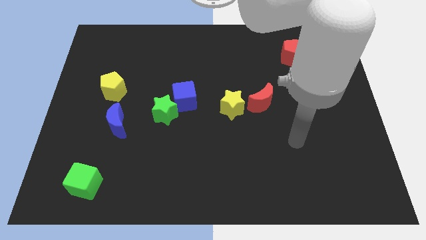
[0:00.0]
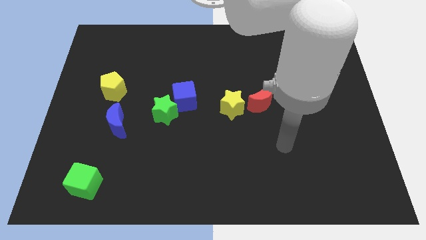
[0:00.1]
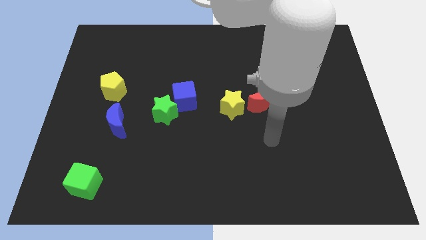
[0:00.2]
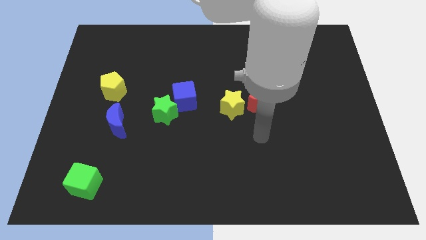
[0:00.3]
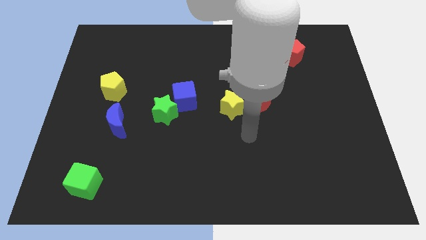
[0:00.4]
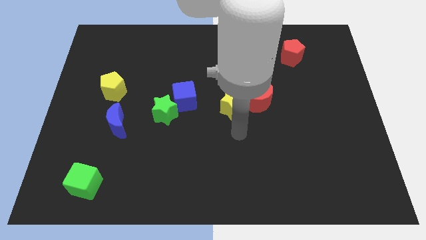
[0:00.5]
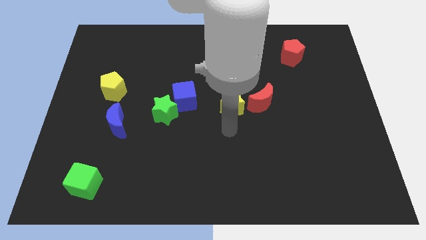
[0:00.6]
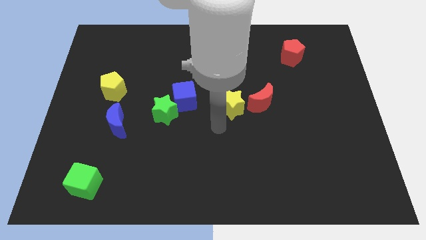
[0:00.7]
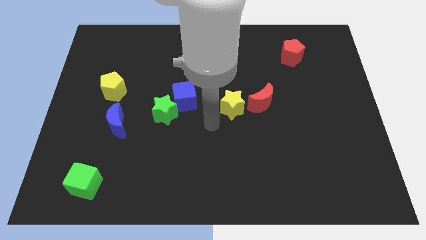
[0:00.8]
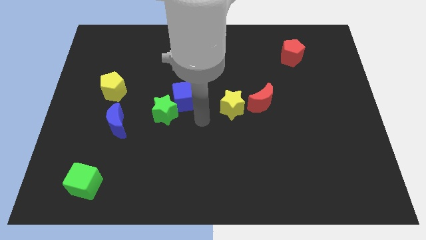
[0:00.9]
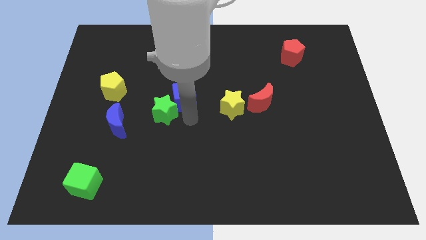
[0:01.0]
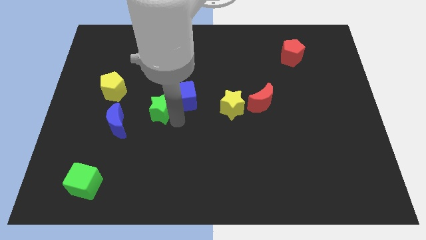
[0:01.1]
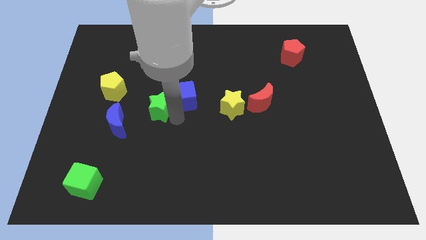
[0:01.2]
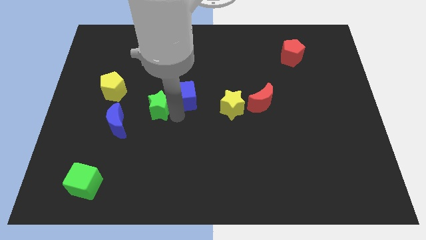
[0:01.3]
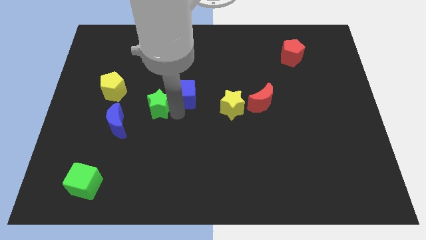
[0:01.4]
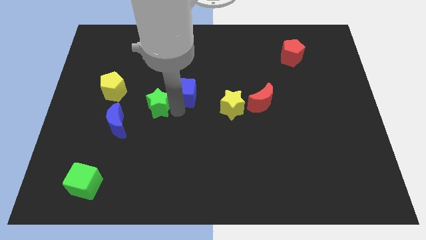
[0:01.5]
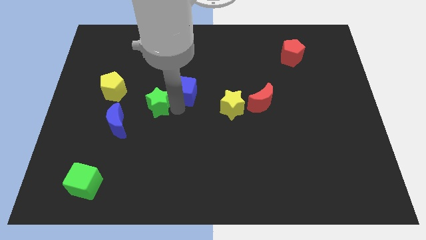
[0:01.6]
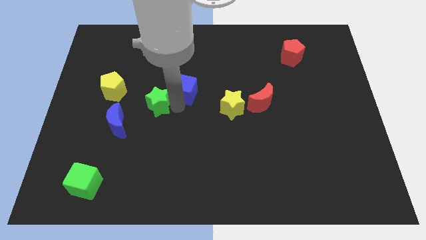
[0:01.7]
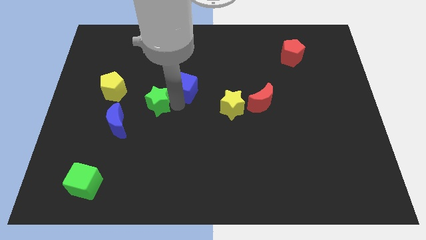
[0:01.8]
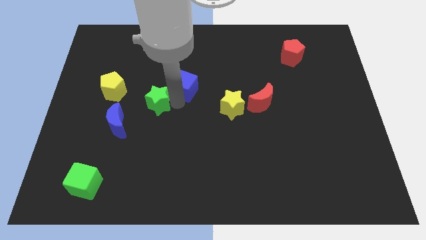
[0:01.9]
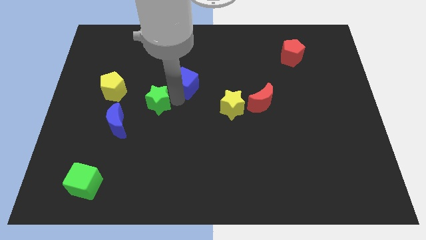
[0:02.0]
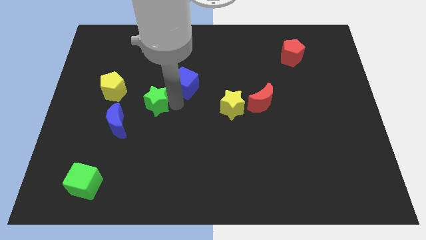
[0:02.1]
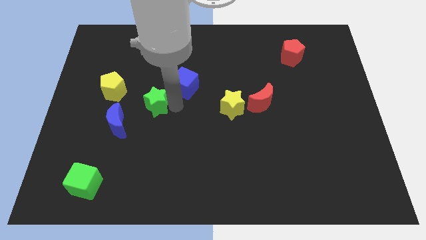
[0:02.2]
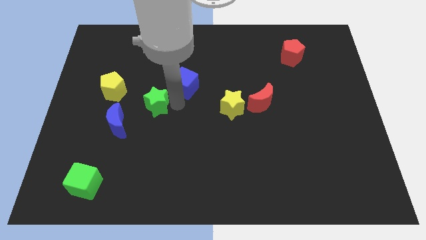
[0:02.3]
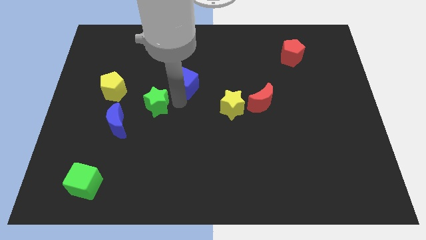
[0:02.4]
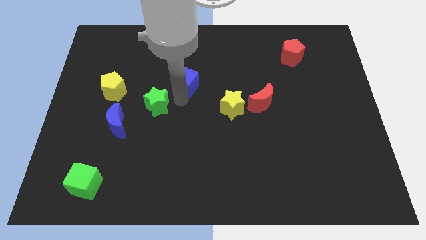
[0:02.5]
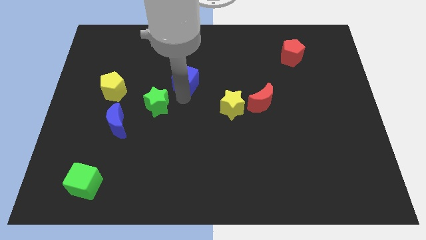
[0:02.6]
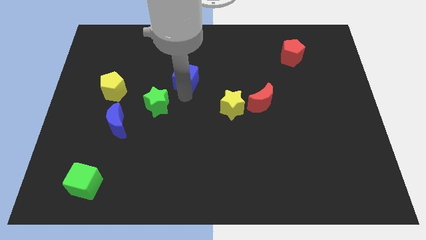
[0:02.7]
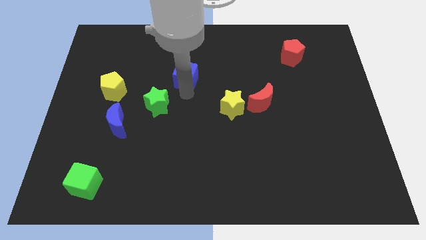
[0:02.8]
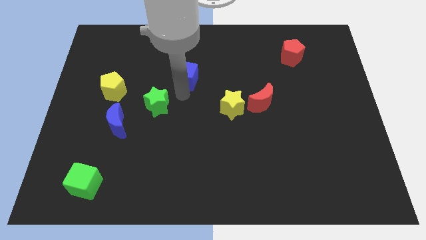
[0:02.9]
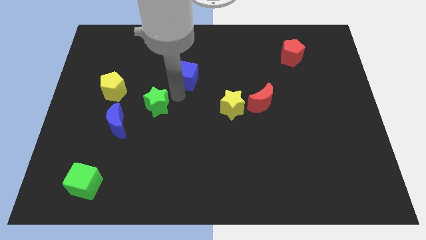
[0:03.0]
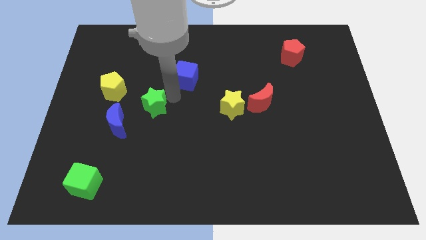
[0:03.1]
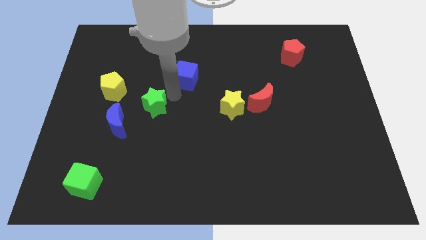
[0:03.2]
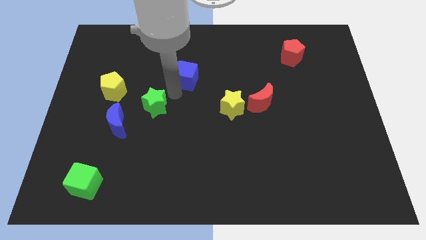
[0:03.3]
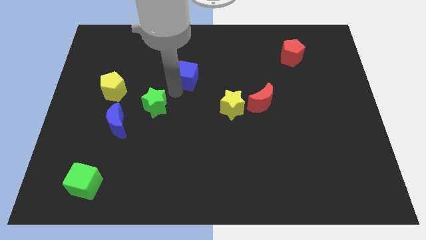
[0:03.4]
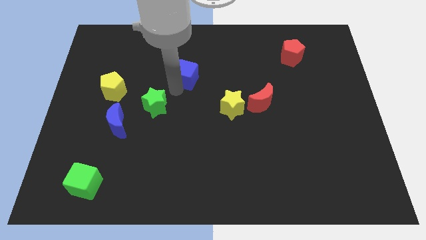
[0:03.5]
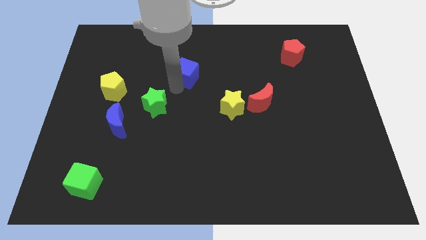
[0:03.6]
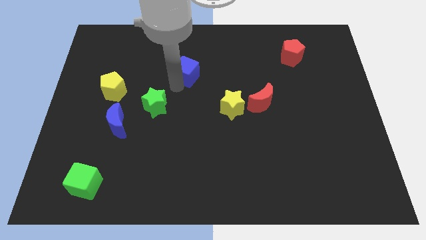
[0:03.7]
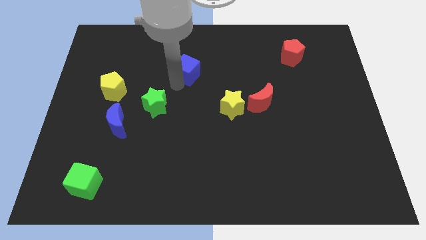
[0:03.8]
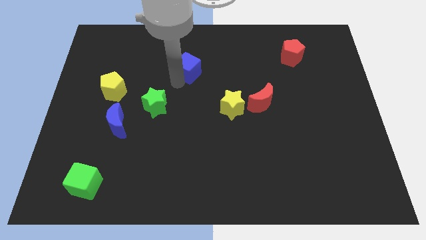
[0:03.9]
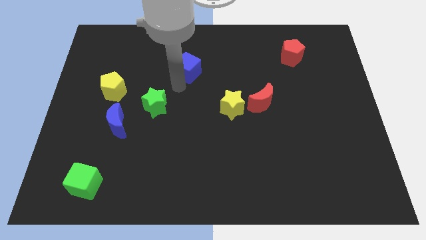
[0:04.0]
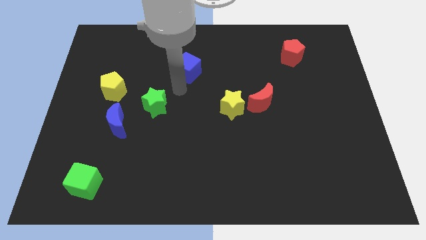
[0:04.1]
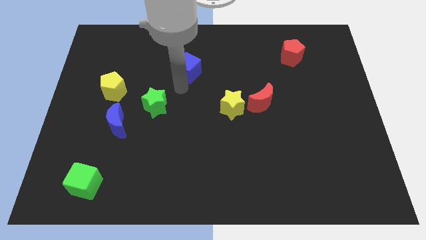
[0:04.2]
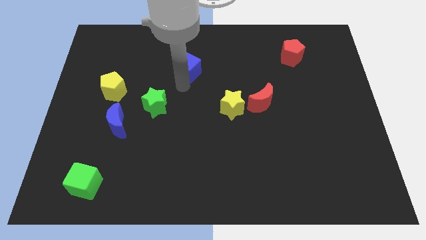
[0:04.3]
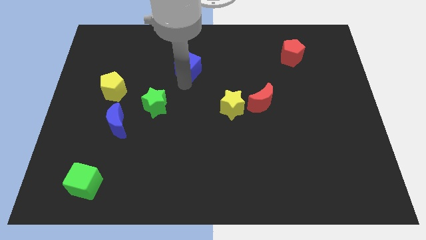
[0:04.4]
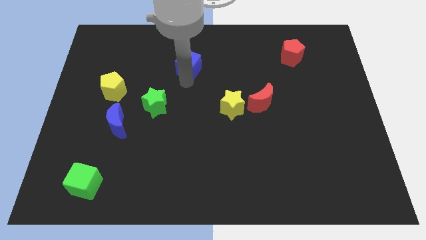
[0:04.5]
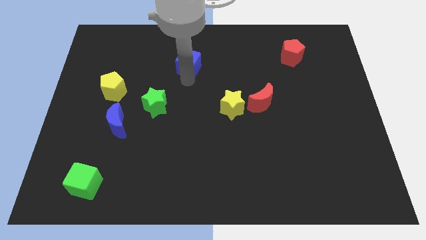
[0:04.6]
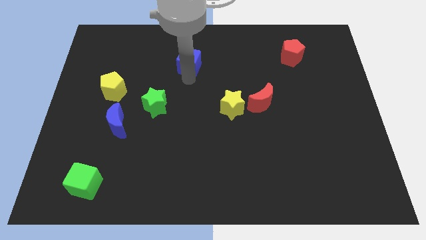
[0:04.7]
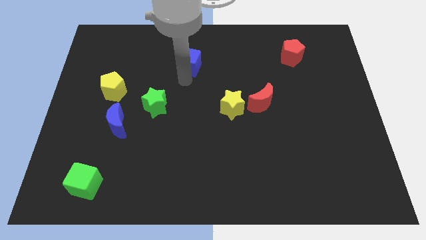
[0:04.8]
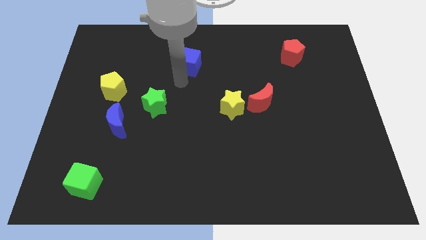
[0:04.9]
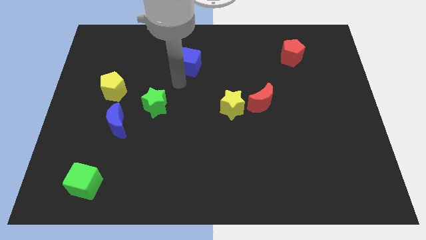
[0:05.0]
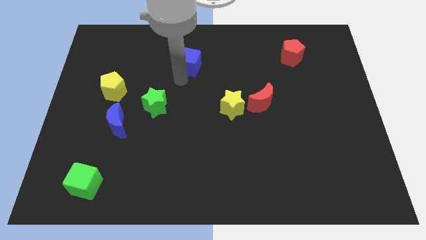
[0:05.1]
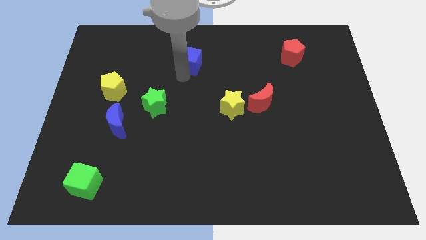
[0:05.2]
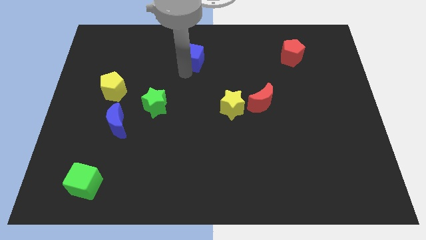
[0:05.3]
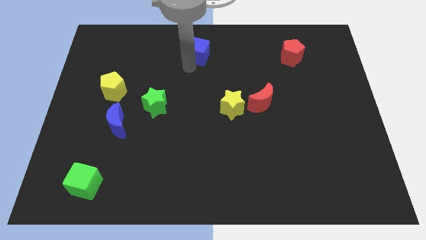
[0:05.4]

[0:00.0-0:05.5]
move the blue cube to the top

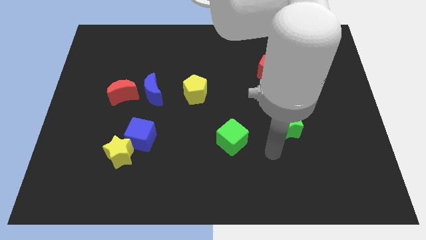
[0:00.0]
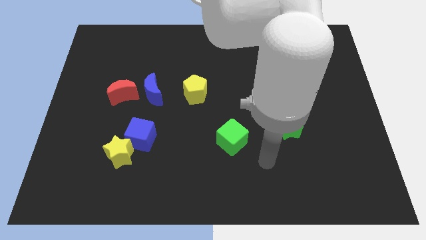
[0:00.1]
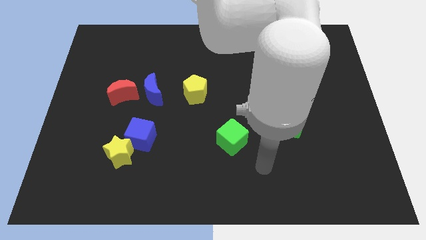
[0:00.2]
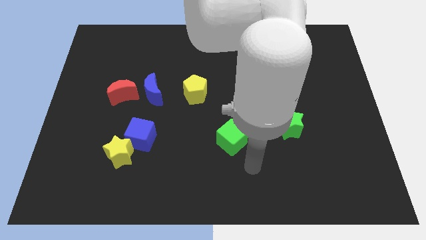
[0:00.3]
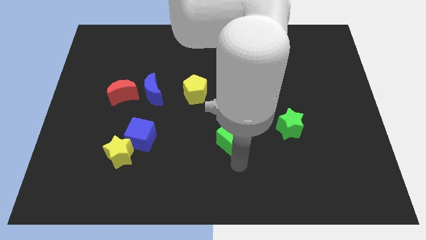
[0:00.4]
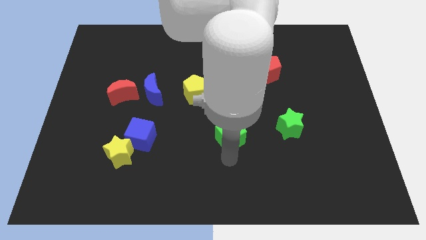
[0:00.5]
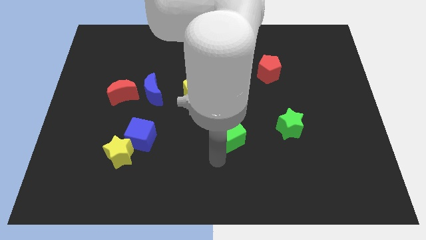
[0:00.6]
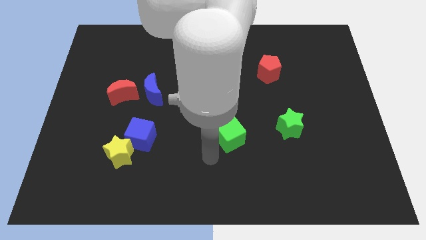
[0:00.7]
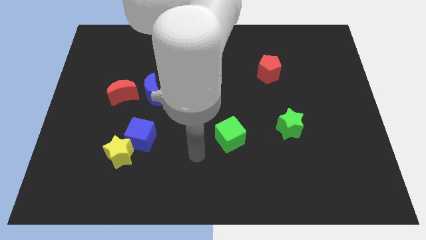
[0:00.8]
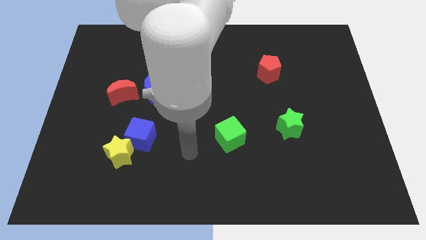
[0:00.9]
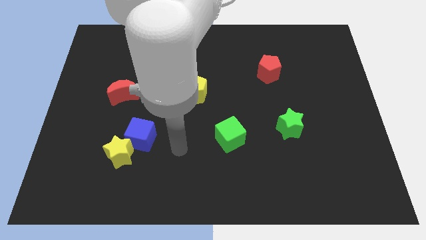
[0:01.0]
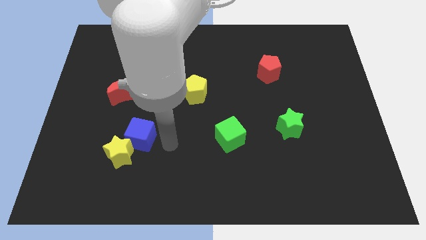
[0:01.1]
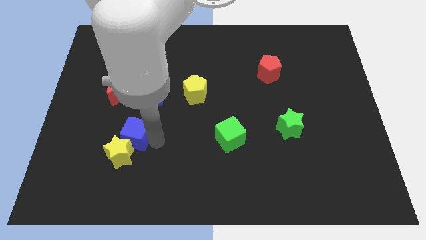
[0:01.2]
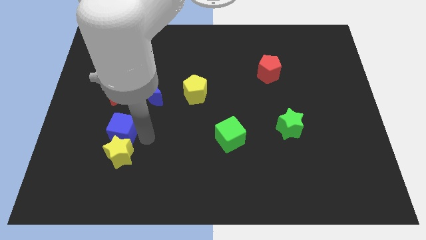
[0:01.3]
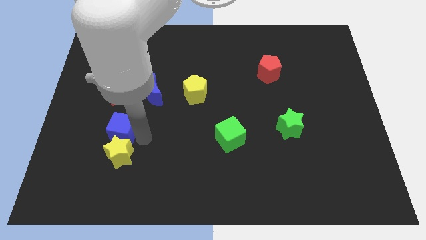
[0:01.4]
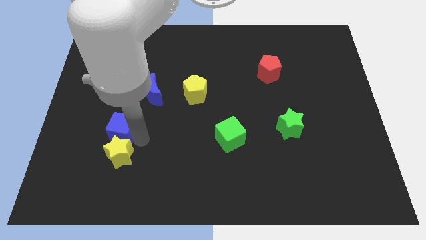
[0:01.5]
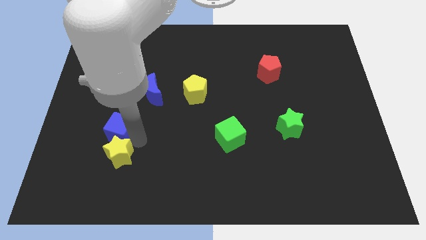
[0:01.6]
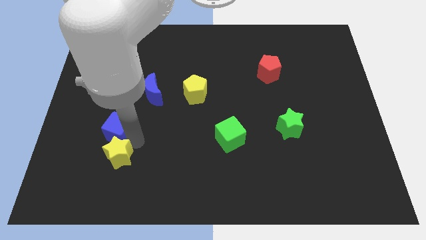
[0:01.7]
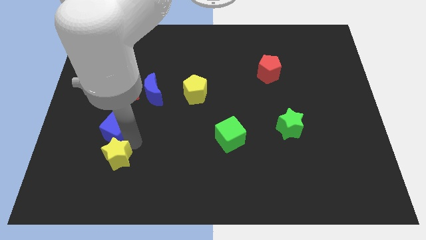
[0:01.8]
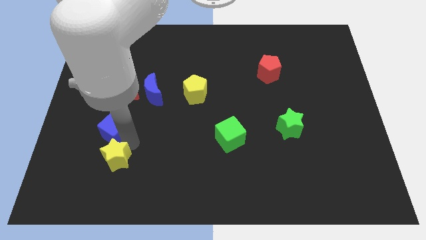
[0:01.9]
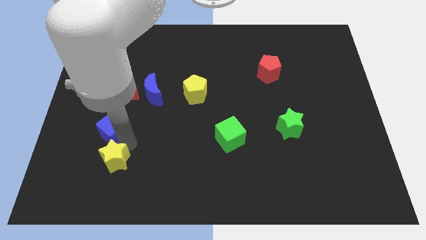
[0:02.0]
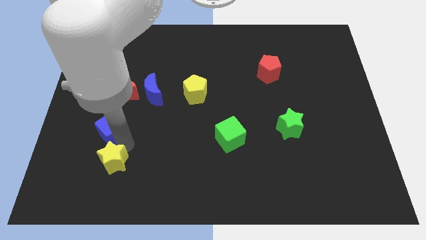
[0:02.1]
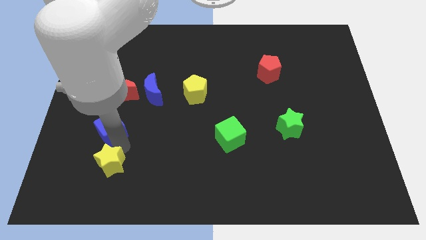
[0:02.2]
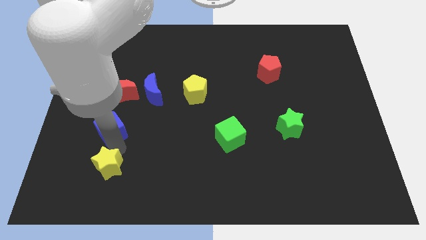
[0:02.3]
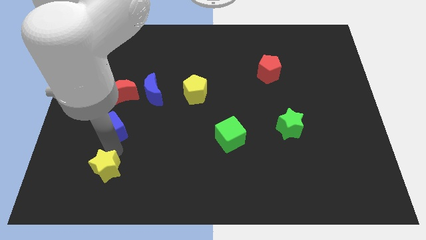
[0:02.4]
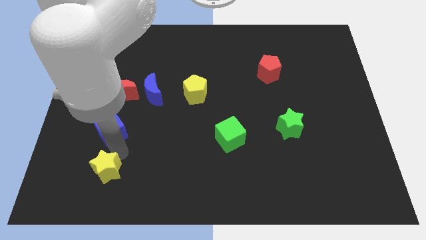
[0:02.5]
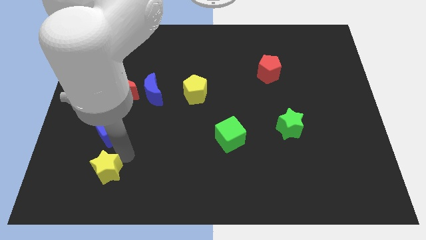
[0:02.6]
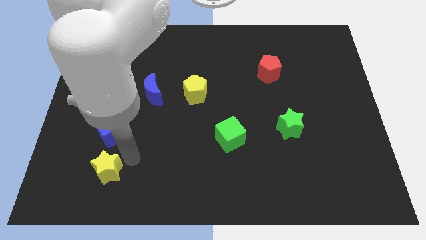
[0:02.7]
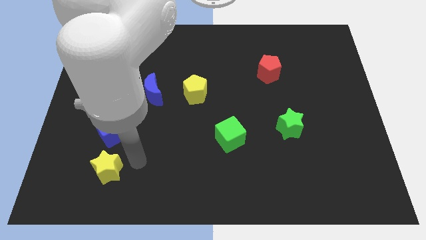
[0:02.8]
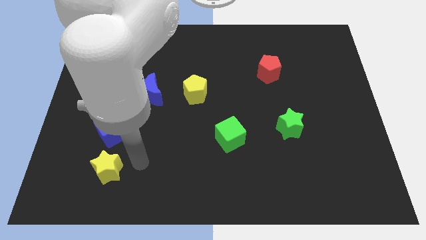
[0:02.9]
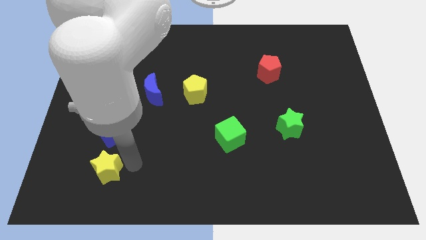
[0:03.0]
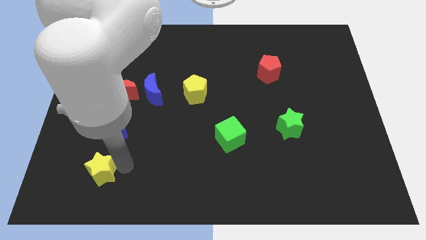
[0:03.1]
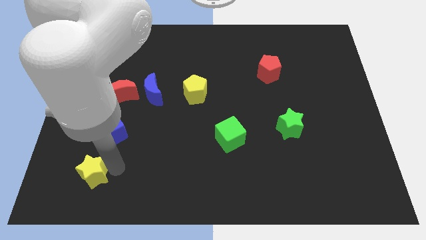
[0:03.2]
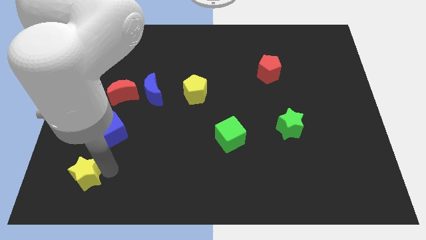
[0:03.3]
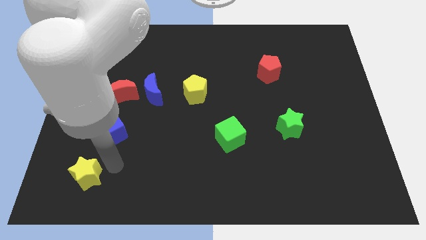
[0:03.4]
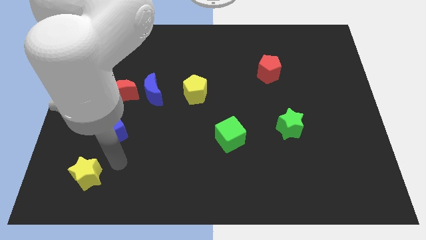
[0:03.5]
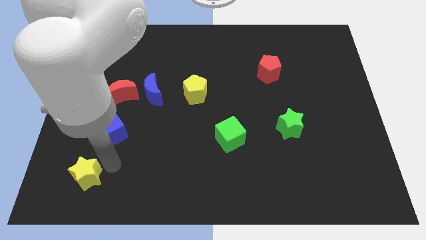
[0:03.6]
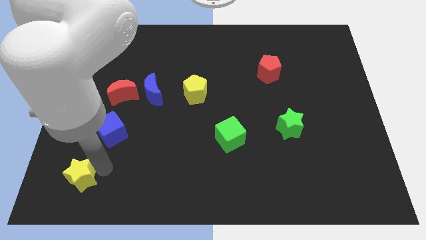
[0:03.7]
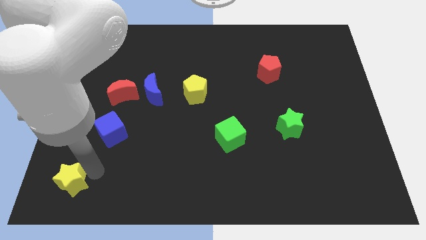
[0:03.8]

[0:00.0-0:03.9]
put the yellow star to the bottom left of the board
